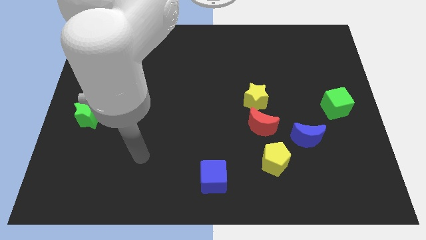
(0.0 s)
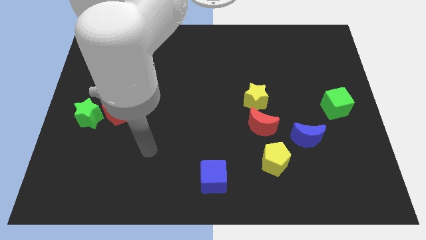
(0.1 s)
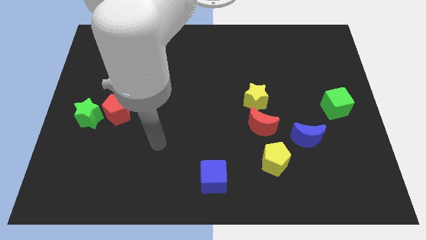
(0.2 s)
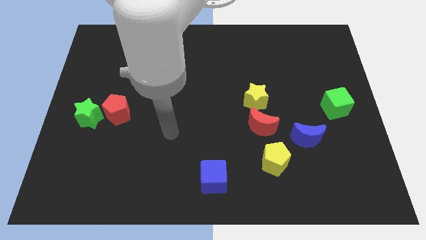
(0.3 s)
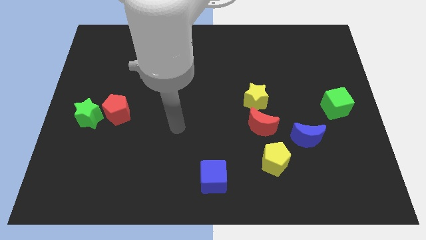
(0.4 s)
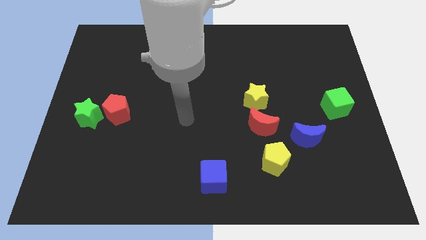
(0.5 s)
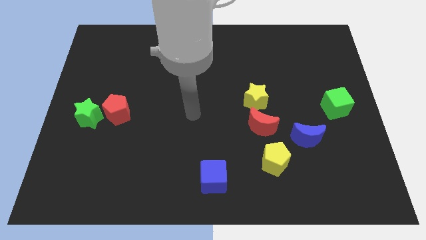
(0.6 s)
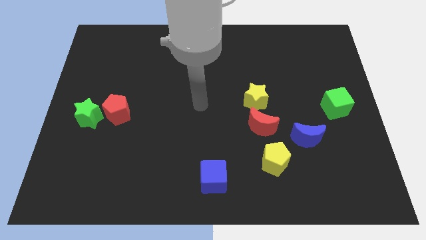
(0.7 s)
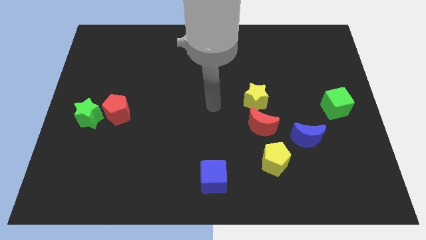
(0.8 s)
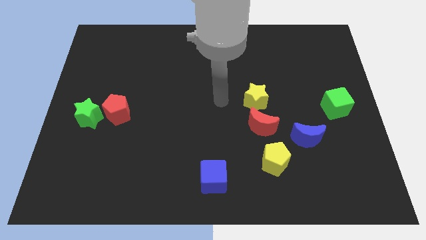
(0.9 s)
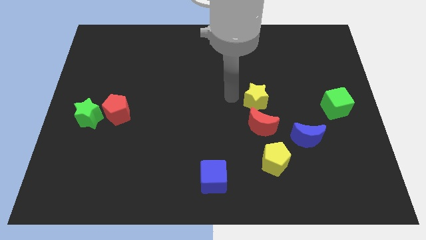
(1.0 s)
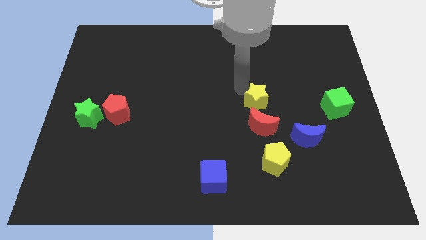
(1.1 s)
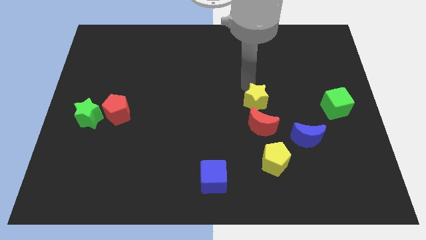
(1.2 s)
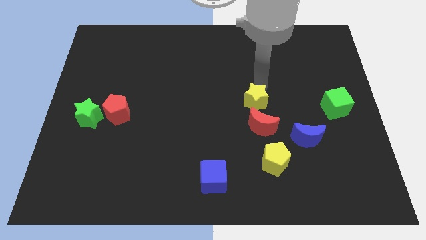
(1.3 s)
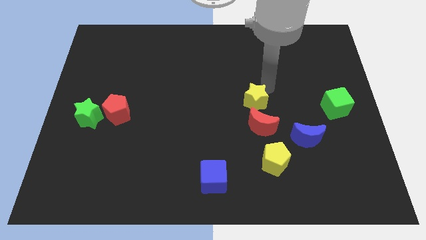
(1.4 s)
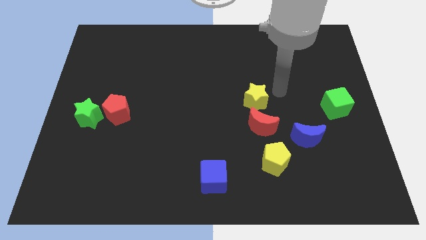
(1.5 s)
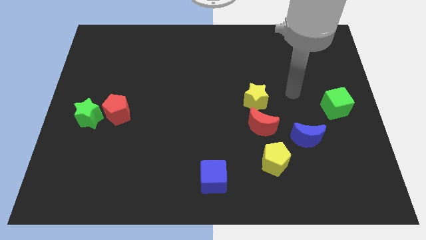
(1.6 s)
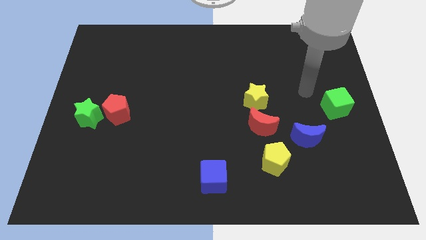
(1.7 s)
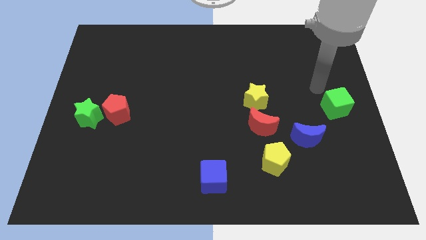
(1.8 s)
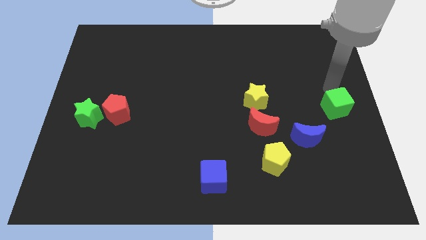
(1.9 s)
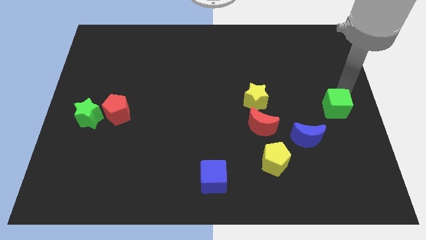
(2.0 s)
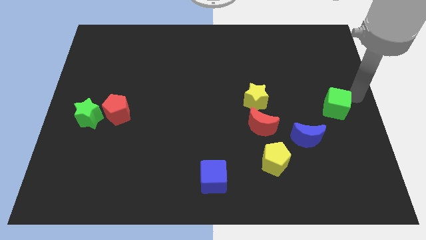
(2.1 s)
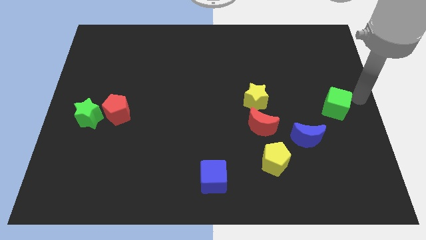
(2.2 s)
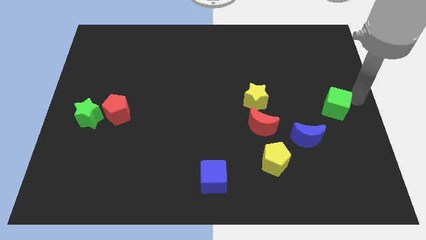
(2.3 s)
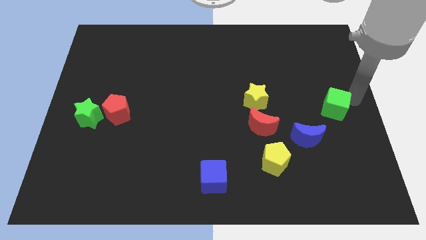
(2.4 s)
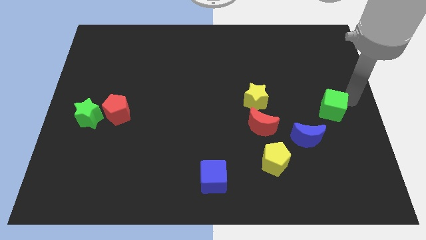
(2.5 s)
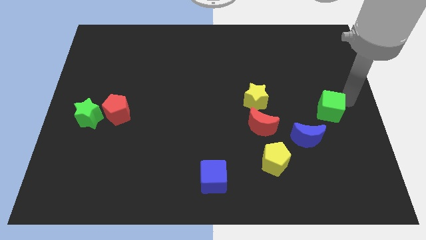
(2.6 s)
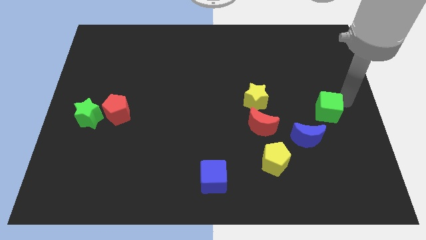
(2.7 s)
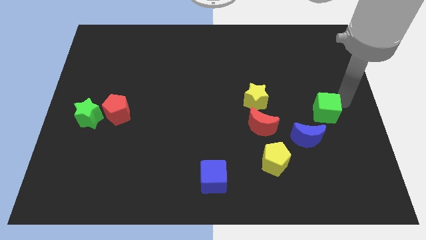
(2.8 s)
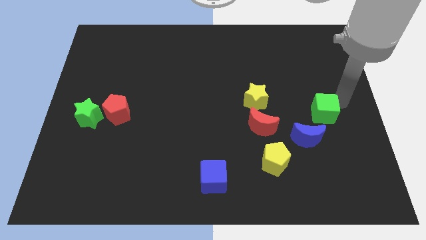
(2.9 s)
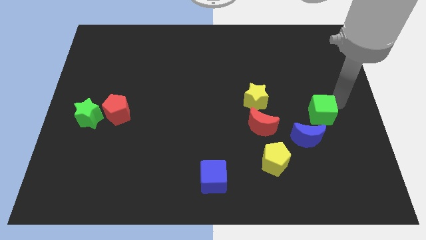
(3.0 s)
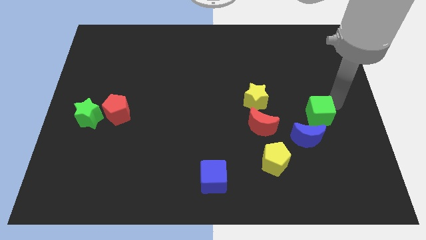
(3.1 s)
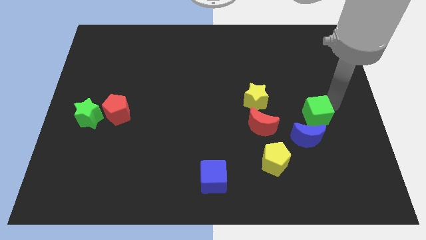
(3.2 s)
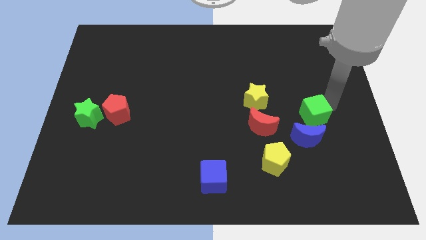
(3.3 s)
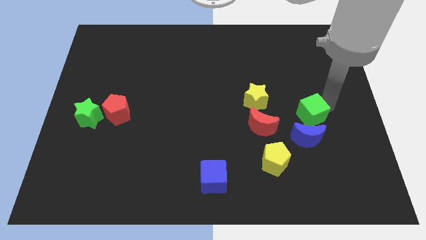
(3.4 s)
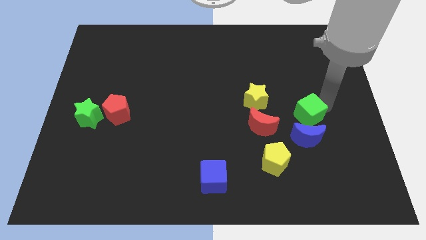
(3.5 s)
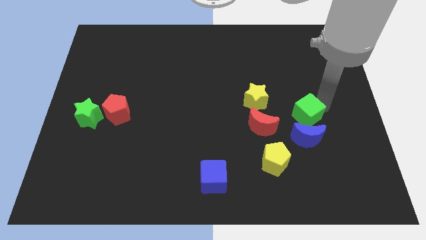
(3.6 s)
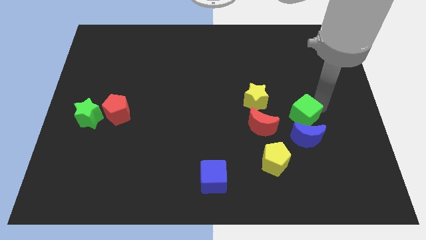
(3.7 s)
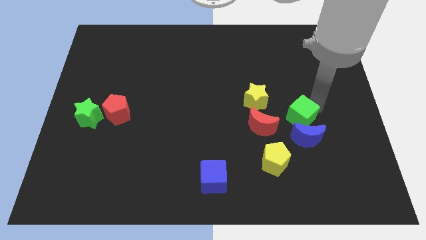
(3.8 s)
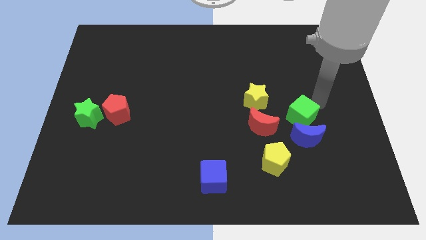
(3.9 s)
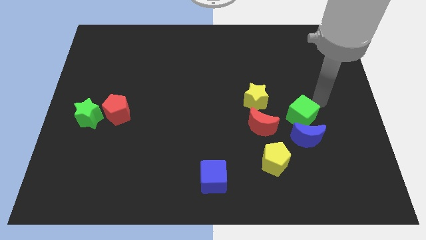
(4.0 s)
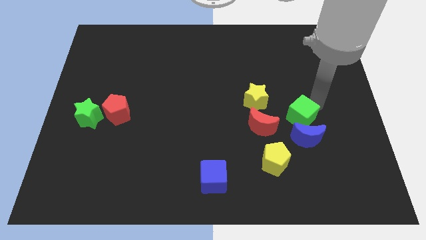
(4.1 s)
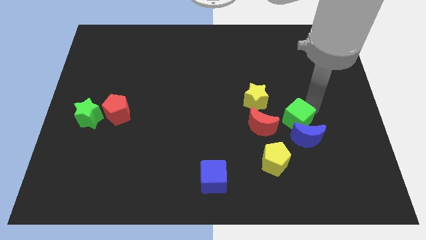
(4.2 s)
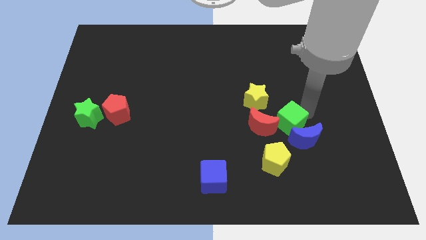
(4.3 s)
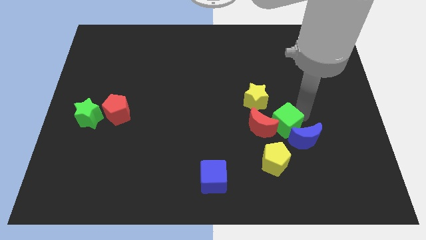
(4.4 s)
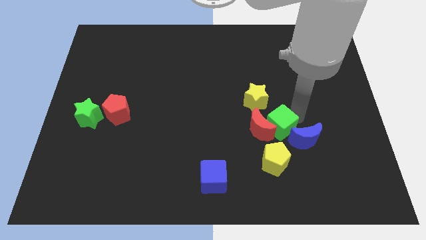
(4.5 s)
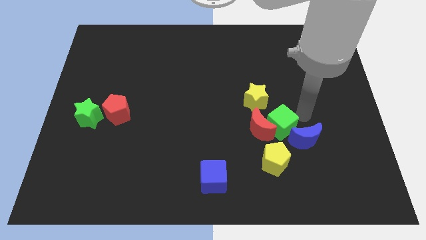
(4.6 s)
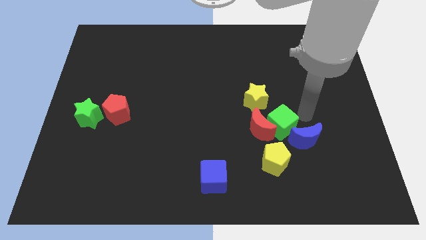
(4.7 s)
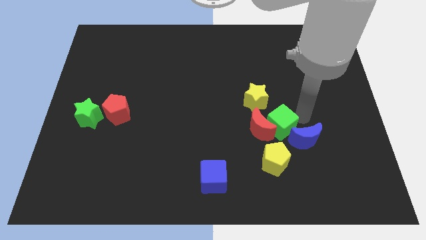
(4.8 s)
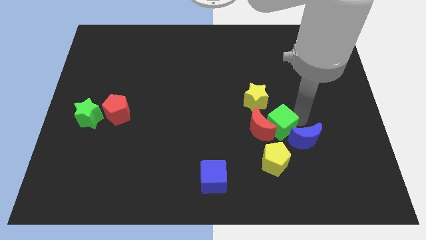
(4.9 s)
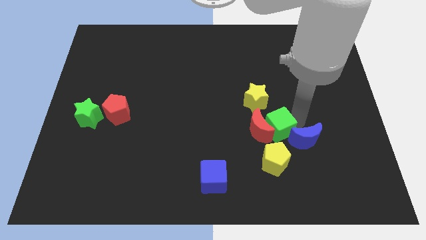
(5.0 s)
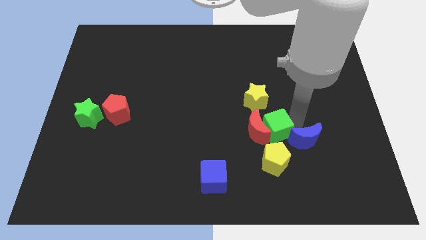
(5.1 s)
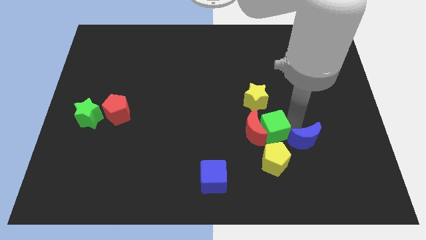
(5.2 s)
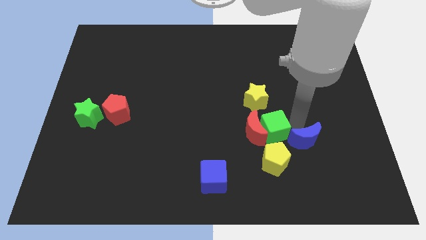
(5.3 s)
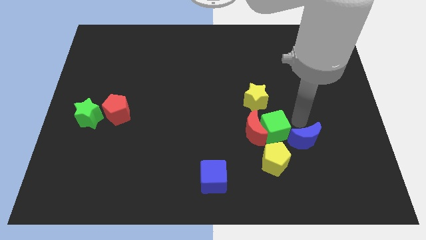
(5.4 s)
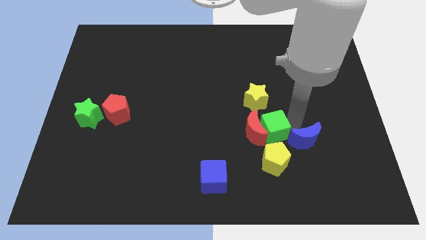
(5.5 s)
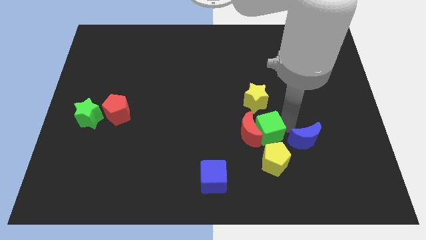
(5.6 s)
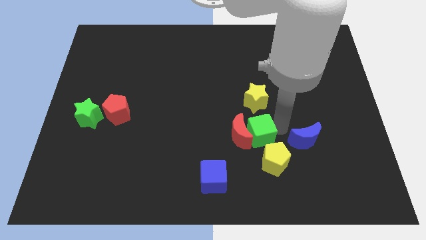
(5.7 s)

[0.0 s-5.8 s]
move the green cube diagonally up and to the left of the yellow pentagon

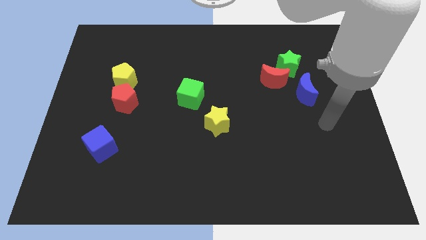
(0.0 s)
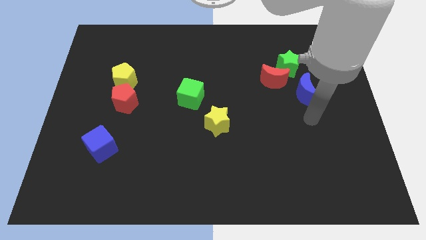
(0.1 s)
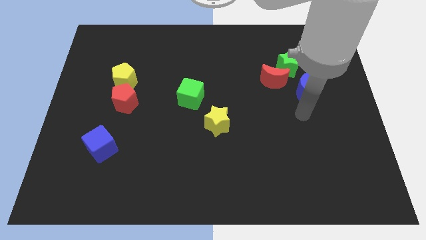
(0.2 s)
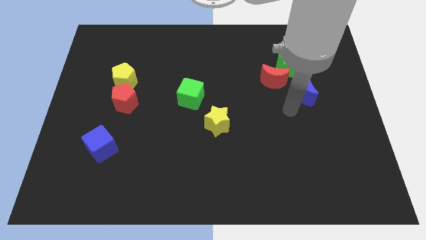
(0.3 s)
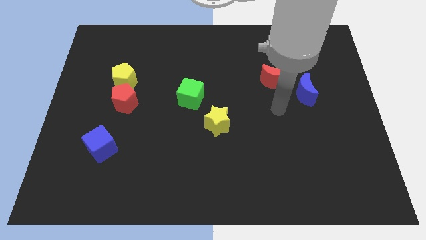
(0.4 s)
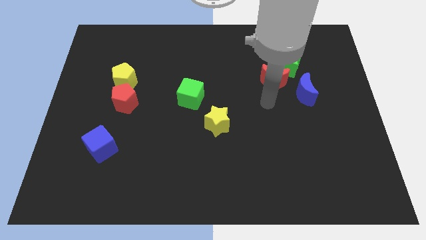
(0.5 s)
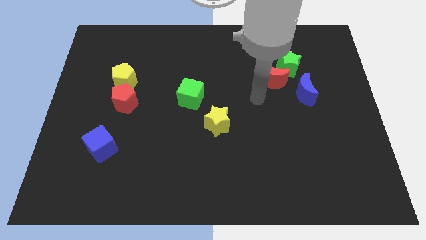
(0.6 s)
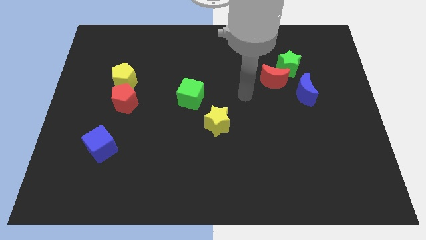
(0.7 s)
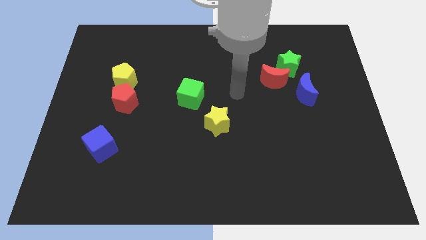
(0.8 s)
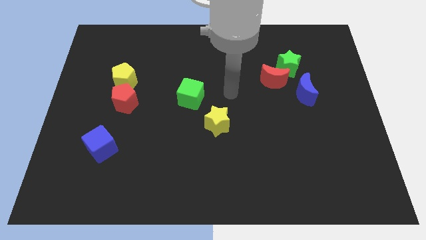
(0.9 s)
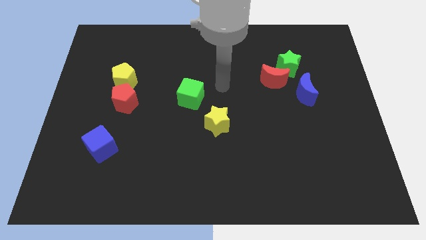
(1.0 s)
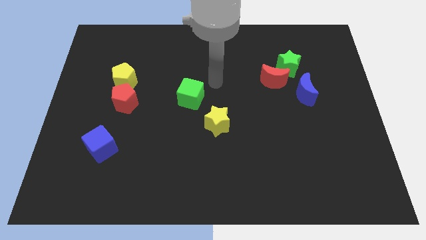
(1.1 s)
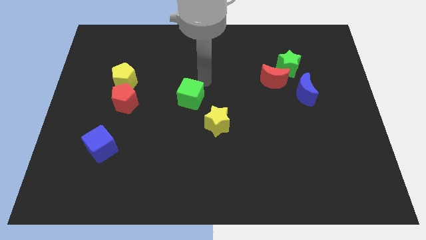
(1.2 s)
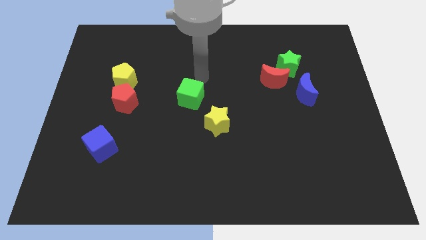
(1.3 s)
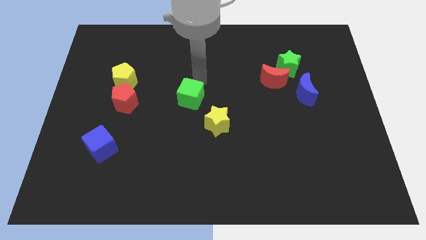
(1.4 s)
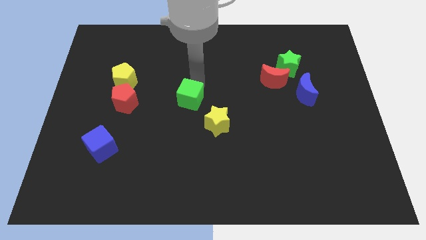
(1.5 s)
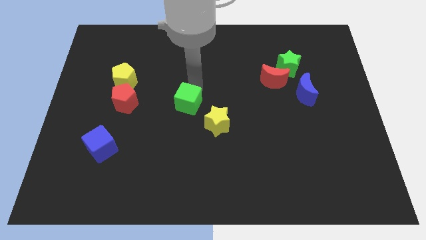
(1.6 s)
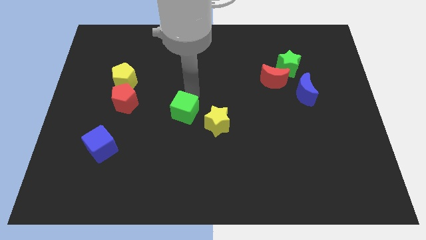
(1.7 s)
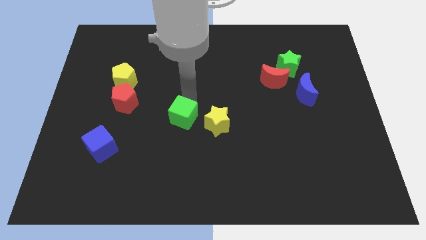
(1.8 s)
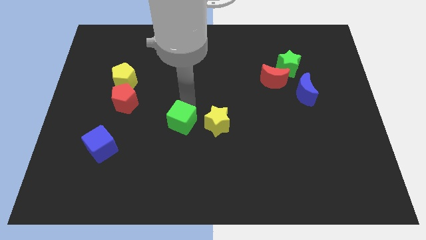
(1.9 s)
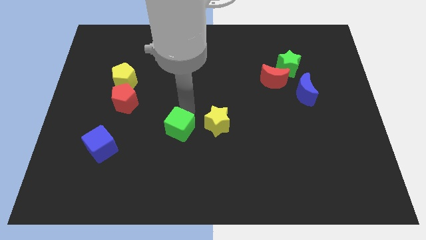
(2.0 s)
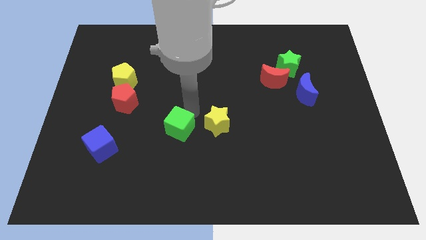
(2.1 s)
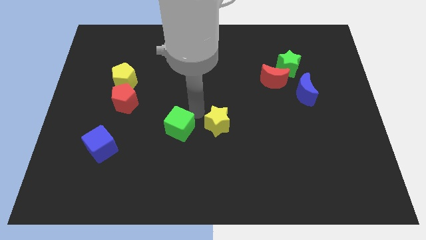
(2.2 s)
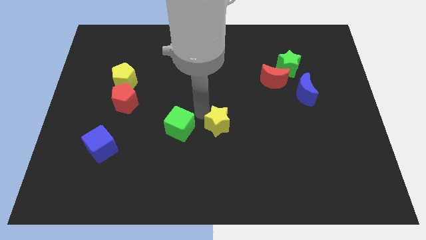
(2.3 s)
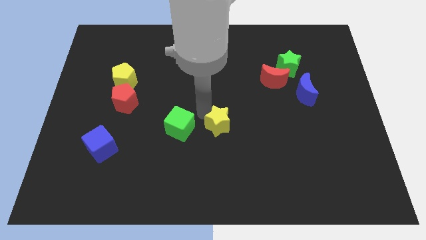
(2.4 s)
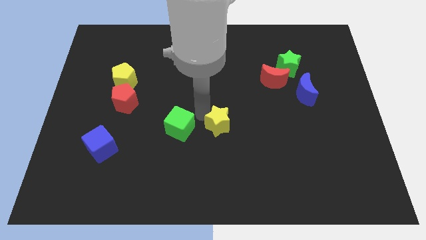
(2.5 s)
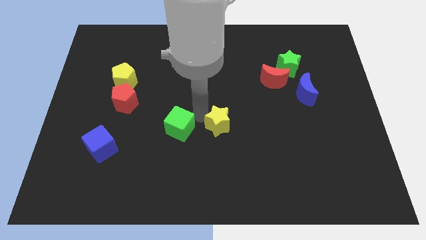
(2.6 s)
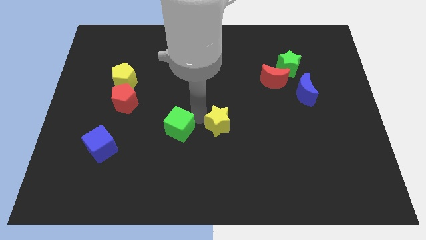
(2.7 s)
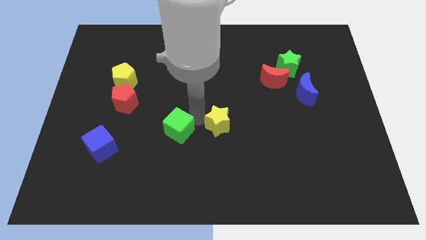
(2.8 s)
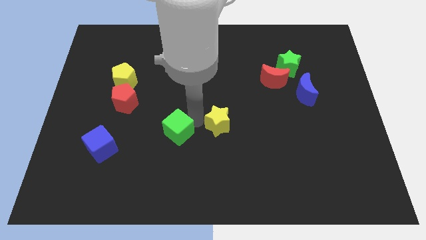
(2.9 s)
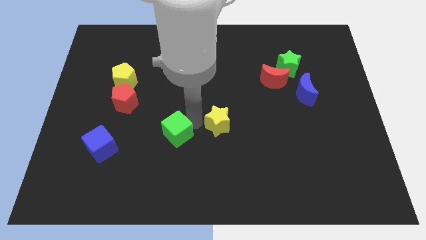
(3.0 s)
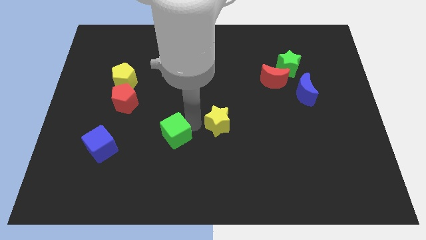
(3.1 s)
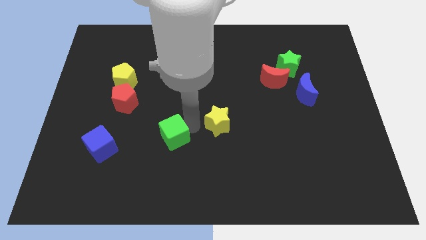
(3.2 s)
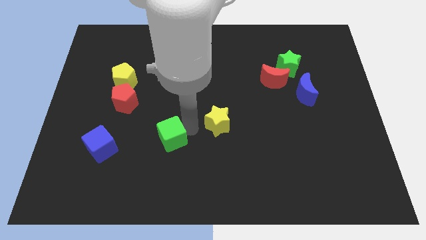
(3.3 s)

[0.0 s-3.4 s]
put the green cube just right of the blue cube
